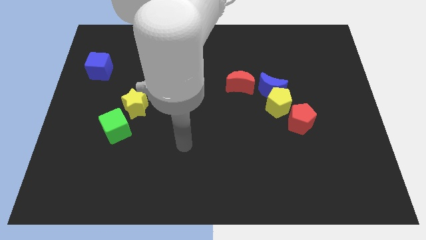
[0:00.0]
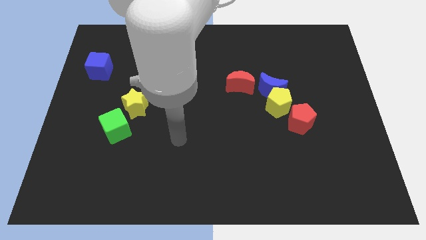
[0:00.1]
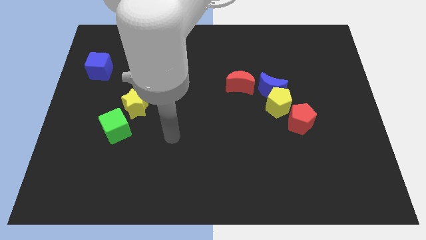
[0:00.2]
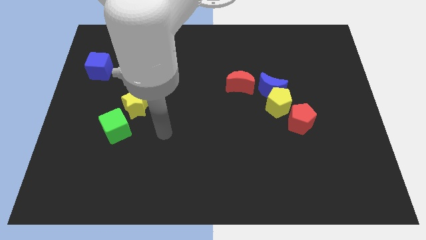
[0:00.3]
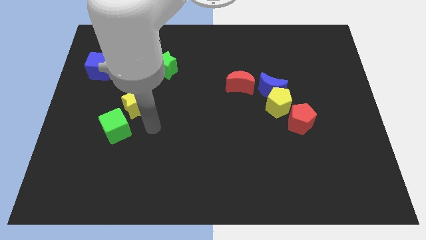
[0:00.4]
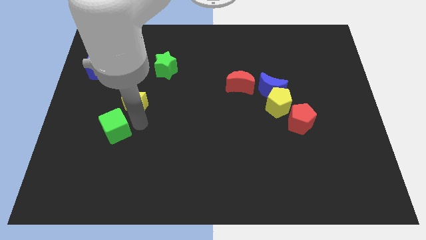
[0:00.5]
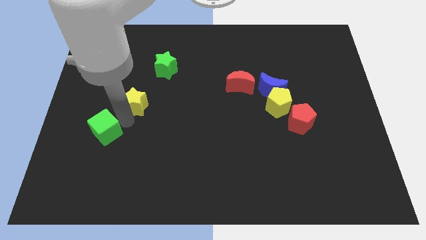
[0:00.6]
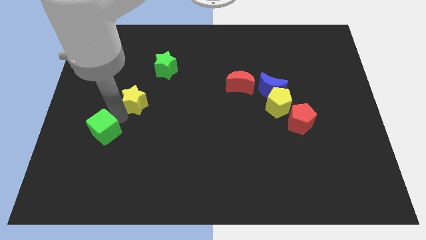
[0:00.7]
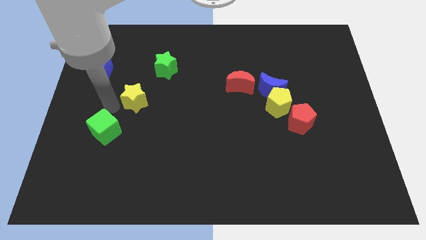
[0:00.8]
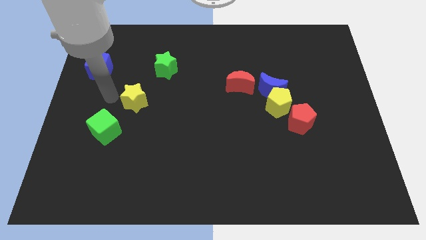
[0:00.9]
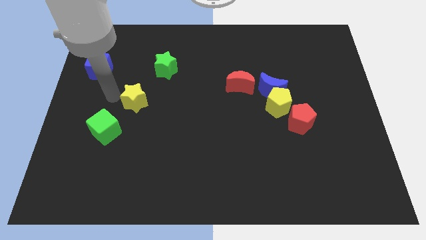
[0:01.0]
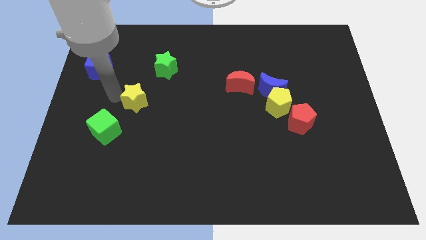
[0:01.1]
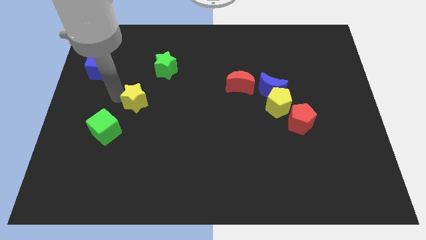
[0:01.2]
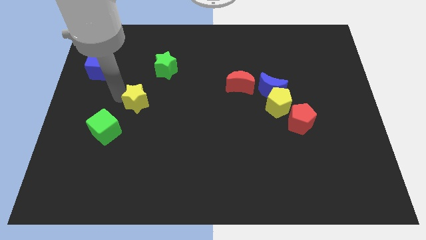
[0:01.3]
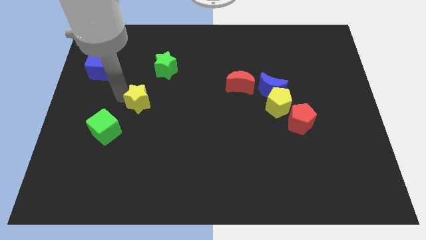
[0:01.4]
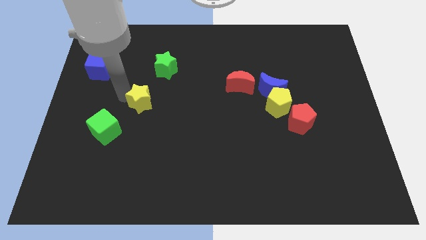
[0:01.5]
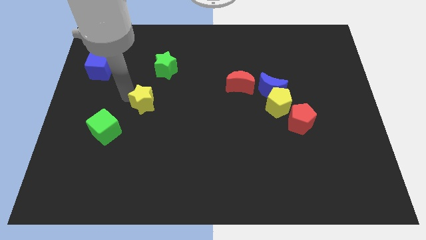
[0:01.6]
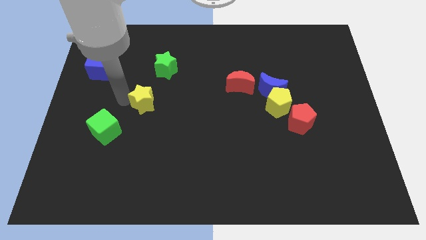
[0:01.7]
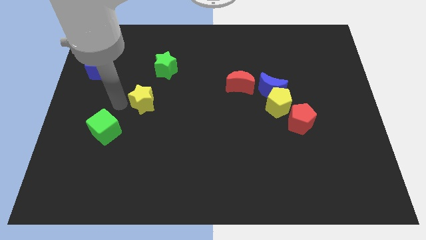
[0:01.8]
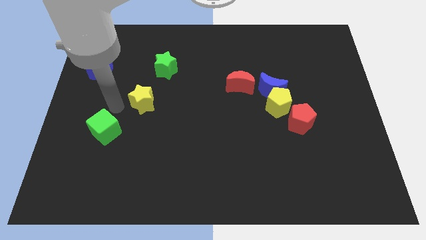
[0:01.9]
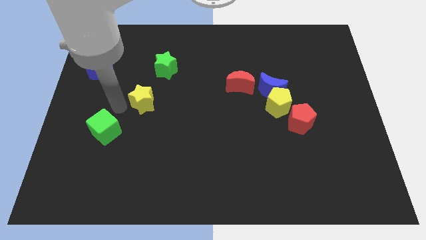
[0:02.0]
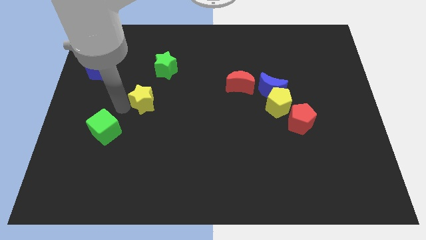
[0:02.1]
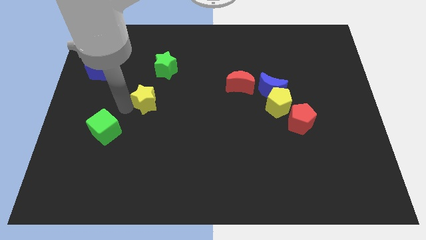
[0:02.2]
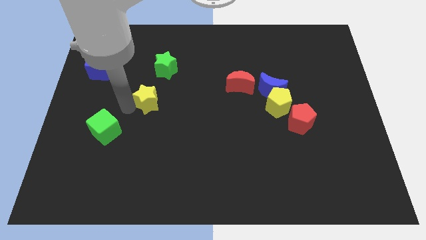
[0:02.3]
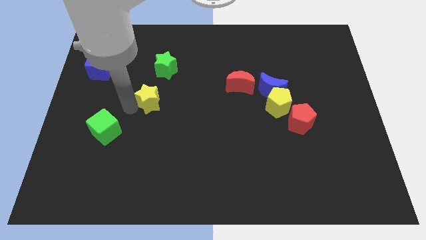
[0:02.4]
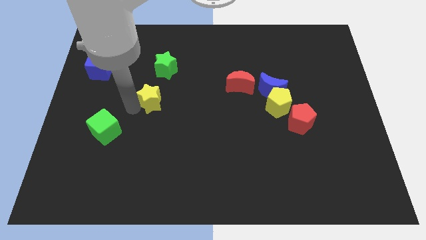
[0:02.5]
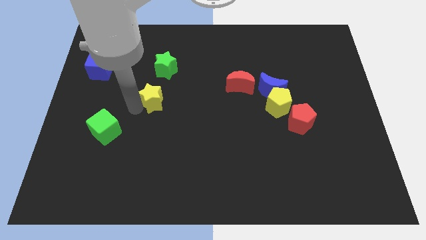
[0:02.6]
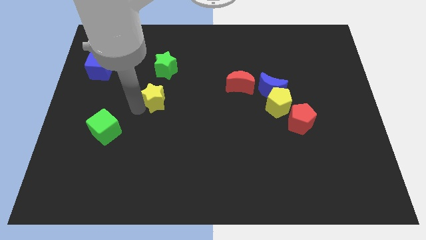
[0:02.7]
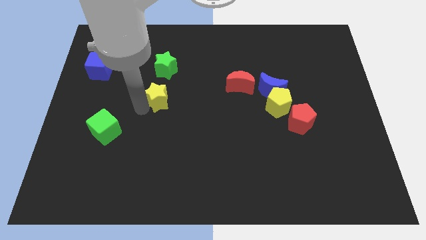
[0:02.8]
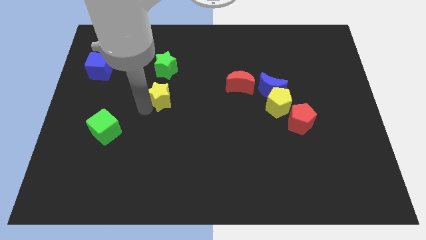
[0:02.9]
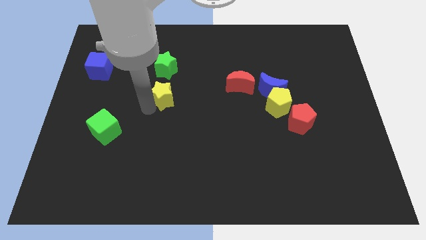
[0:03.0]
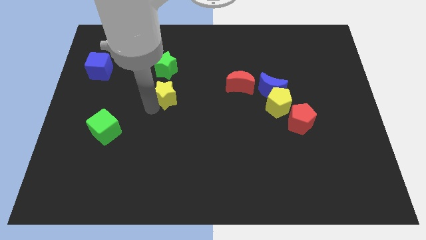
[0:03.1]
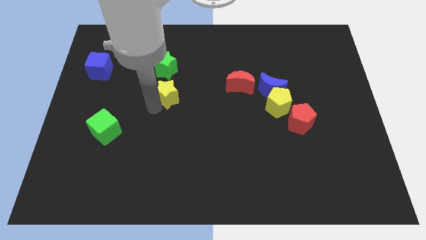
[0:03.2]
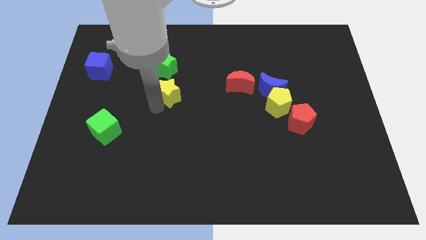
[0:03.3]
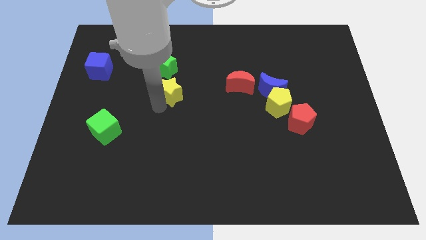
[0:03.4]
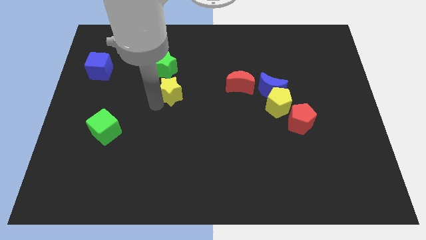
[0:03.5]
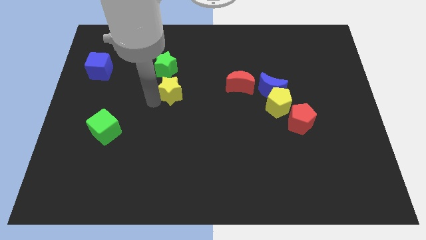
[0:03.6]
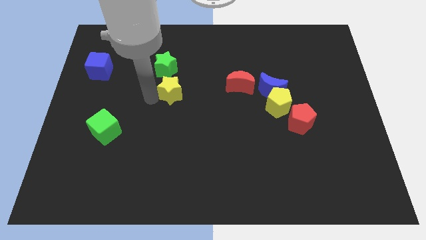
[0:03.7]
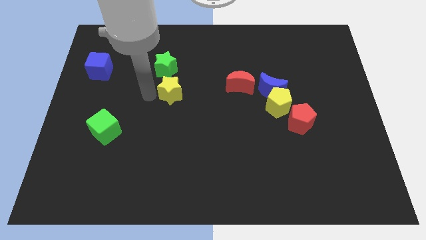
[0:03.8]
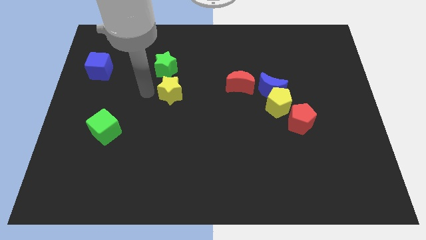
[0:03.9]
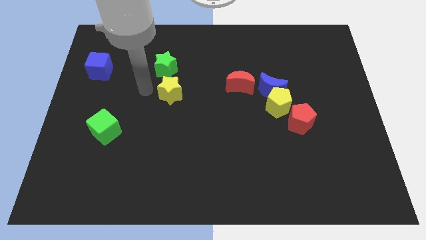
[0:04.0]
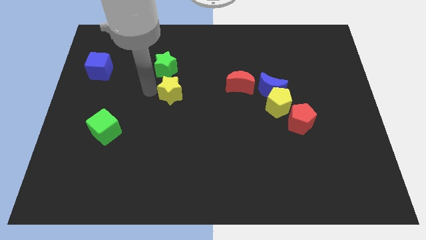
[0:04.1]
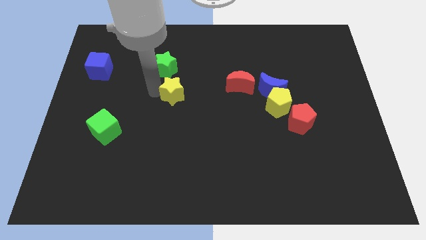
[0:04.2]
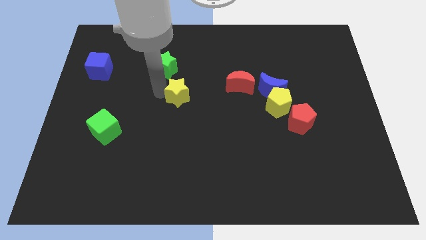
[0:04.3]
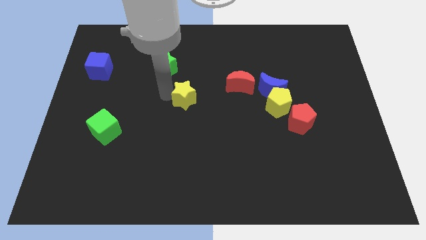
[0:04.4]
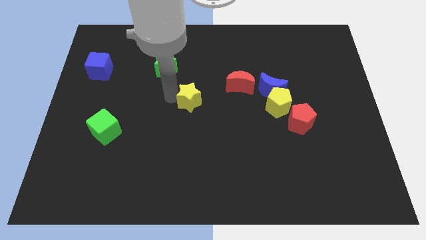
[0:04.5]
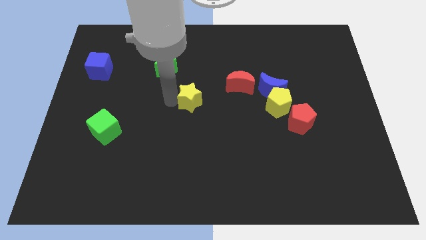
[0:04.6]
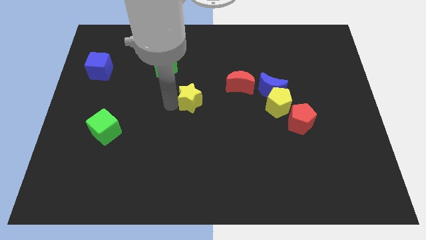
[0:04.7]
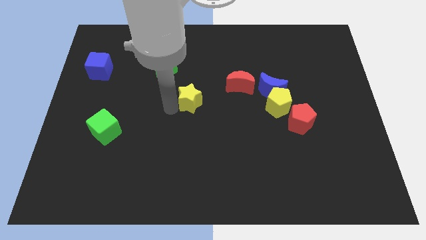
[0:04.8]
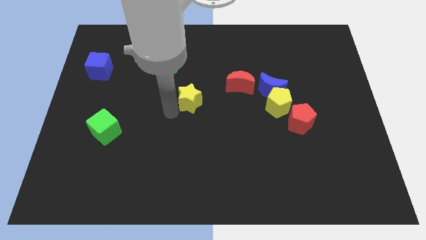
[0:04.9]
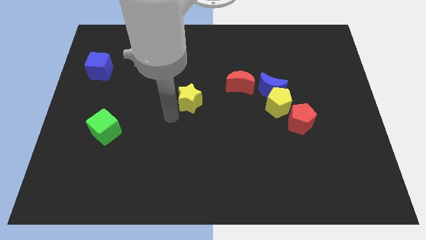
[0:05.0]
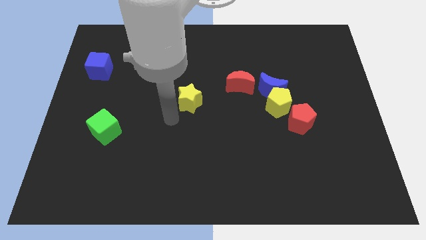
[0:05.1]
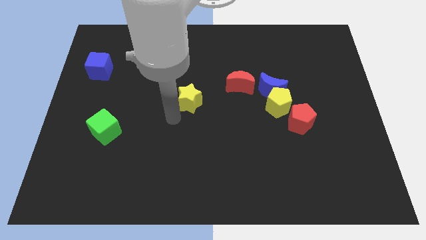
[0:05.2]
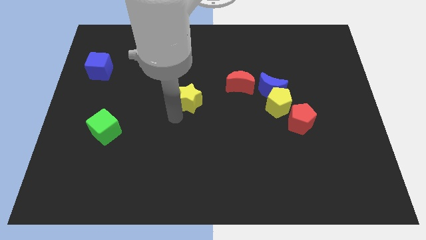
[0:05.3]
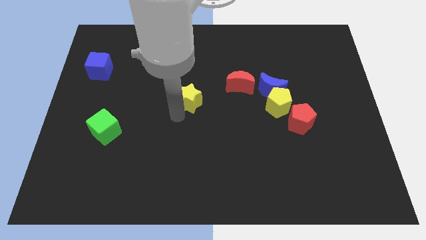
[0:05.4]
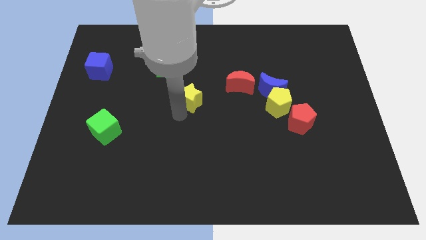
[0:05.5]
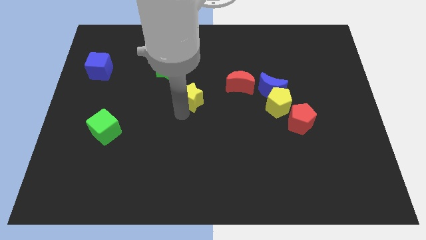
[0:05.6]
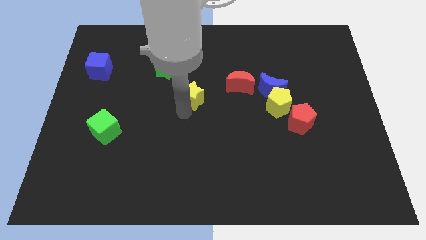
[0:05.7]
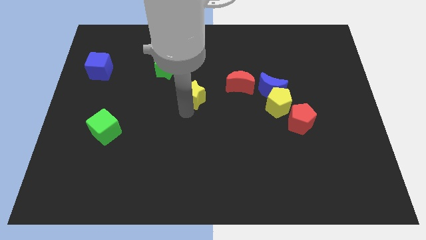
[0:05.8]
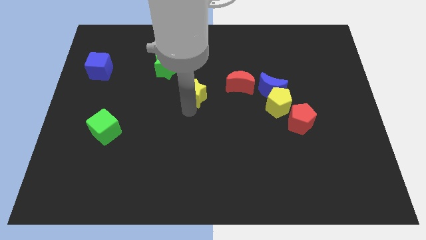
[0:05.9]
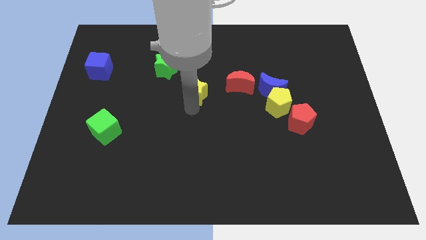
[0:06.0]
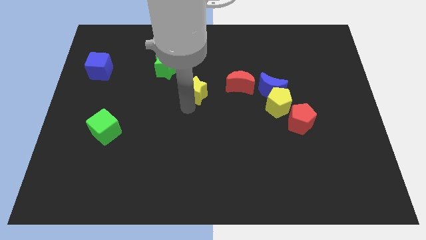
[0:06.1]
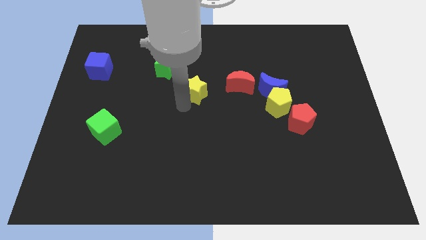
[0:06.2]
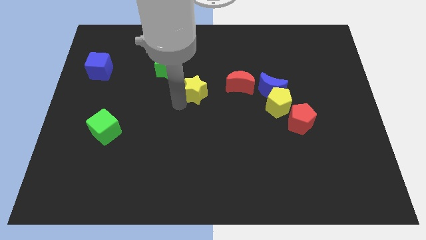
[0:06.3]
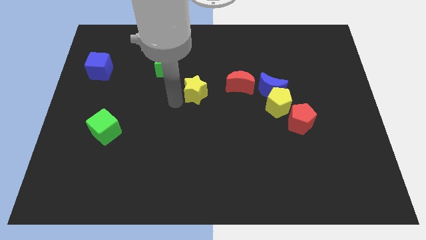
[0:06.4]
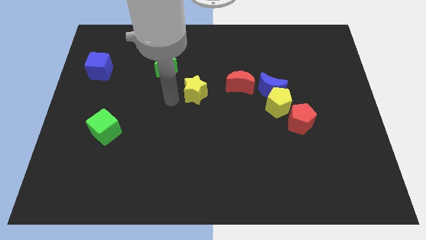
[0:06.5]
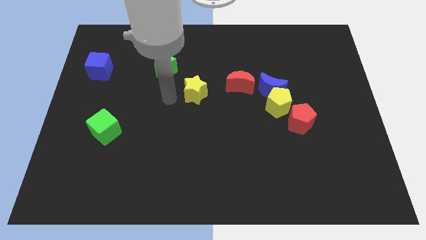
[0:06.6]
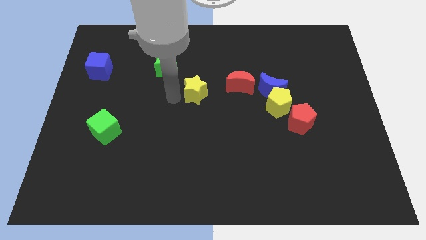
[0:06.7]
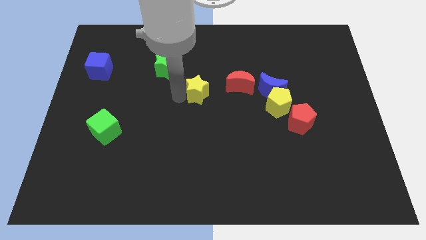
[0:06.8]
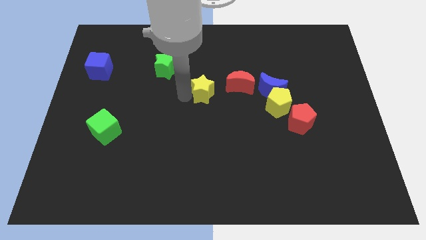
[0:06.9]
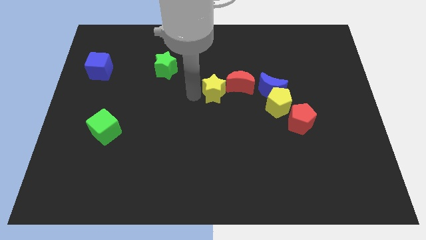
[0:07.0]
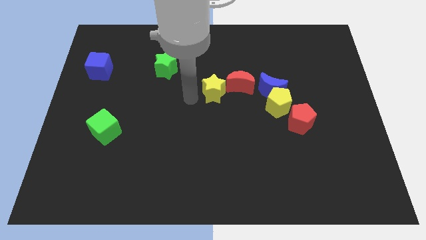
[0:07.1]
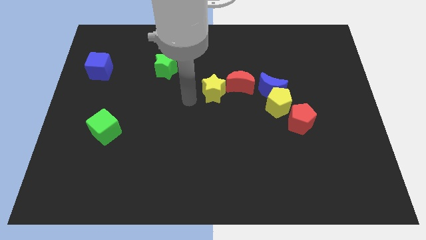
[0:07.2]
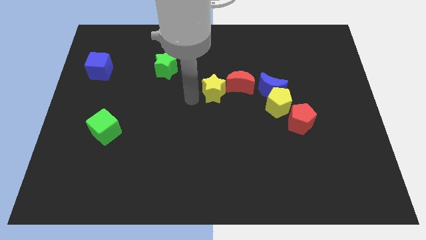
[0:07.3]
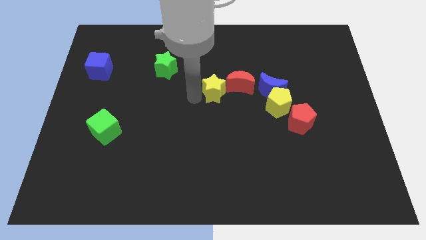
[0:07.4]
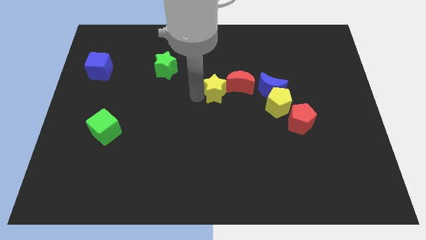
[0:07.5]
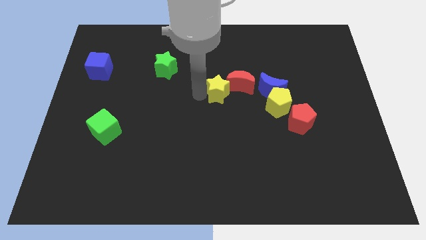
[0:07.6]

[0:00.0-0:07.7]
put the yellow star close to the red moon
